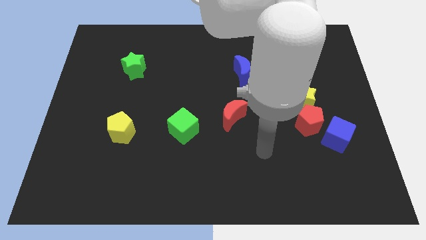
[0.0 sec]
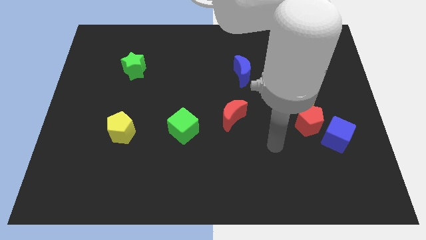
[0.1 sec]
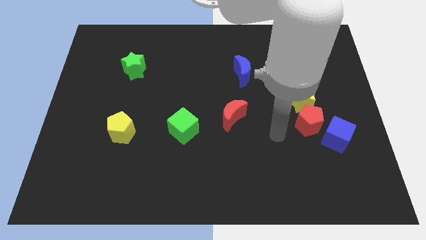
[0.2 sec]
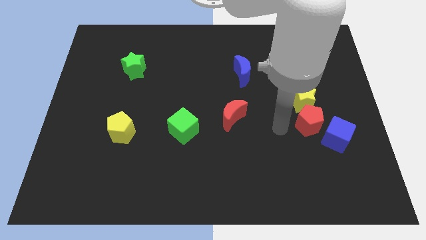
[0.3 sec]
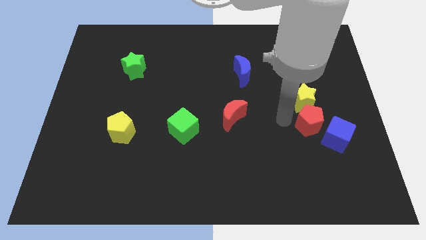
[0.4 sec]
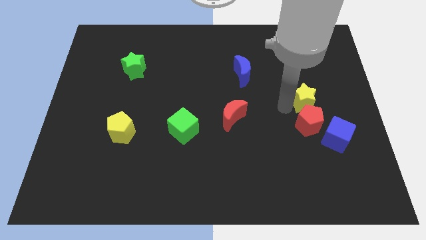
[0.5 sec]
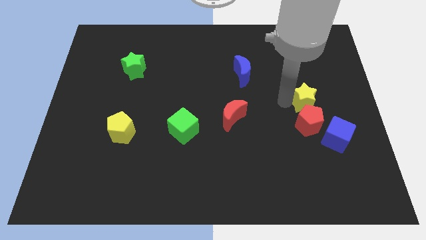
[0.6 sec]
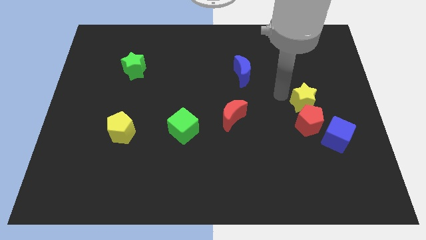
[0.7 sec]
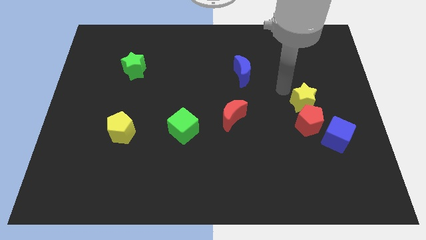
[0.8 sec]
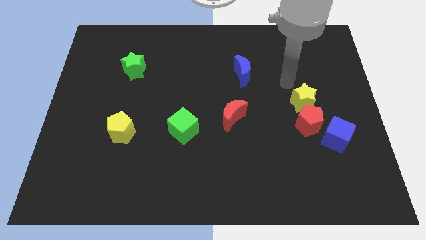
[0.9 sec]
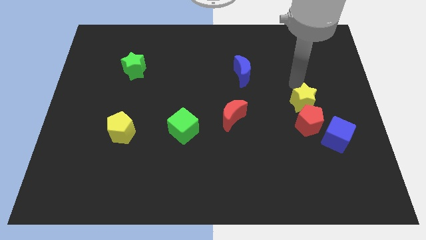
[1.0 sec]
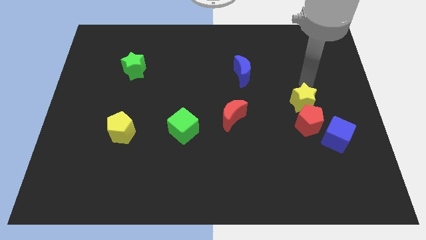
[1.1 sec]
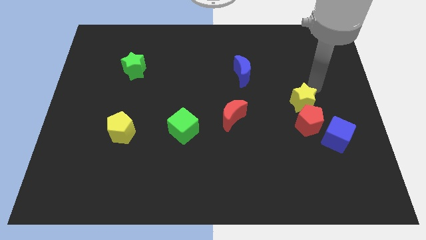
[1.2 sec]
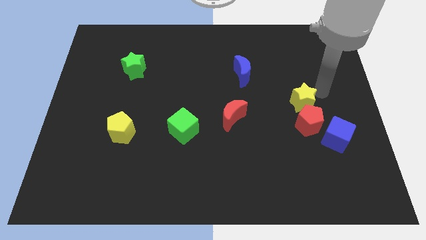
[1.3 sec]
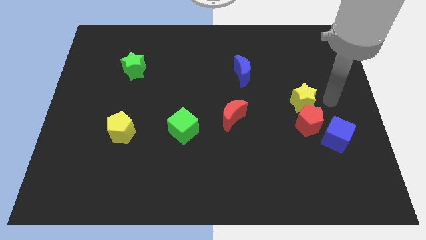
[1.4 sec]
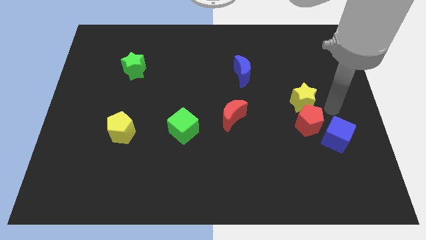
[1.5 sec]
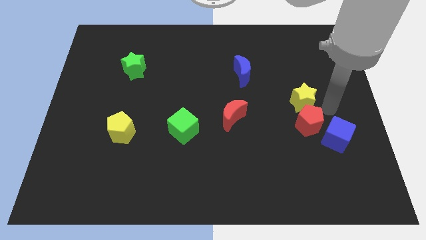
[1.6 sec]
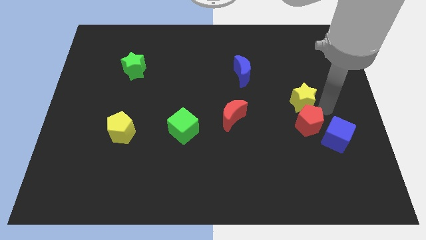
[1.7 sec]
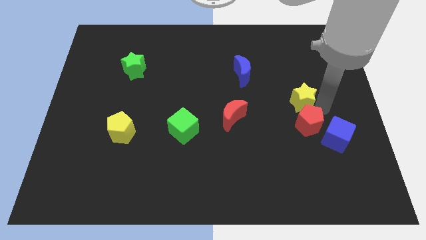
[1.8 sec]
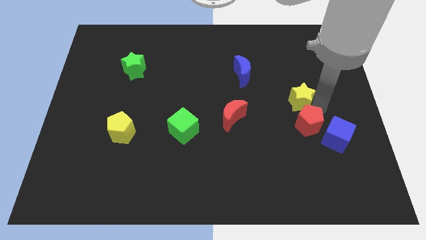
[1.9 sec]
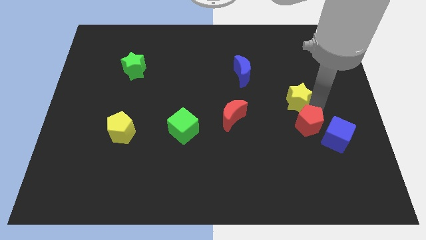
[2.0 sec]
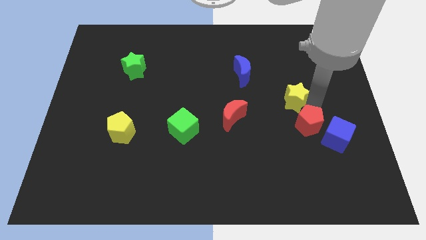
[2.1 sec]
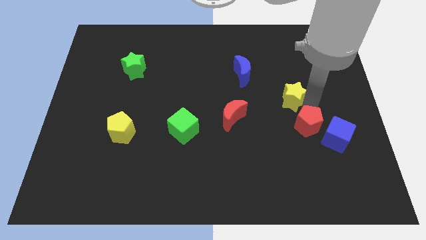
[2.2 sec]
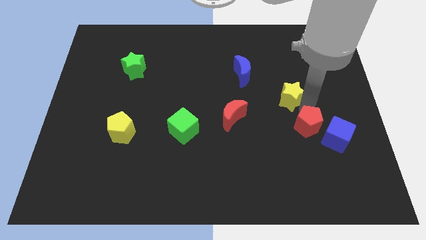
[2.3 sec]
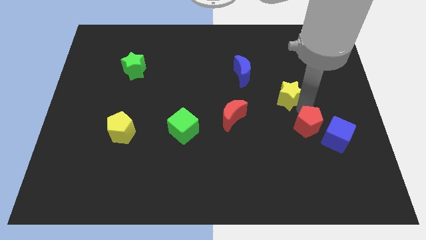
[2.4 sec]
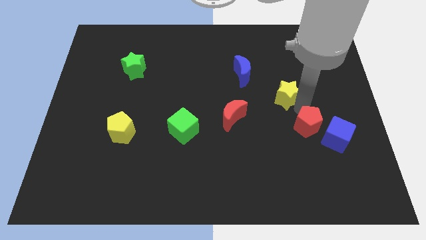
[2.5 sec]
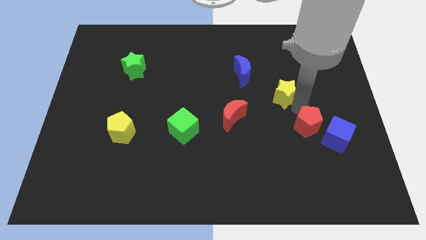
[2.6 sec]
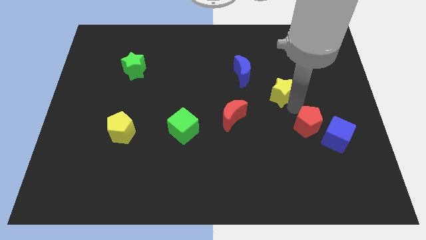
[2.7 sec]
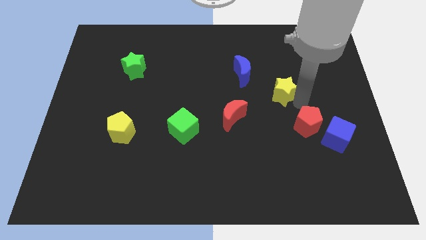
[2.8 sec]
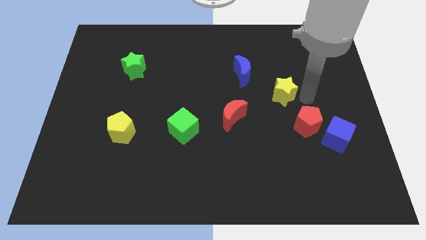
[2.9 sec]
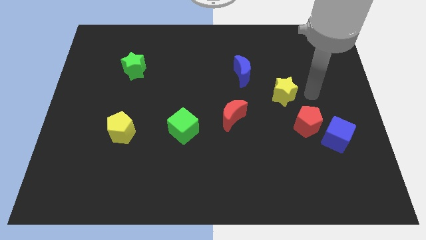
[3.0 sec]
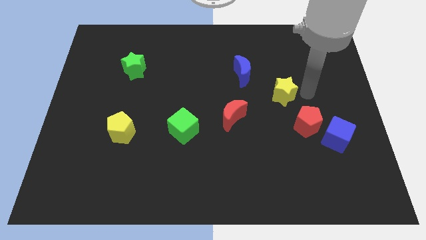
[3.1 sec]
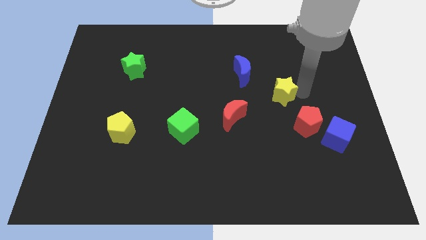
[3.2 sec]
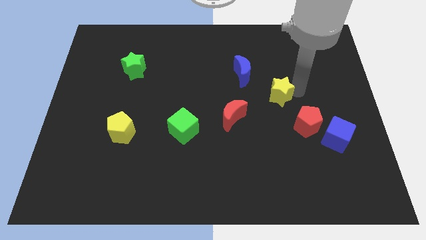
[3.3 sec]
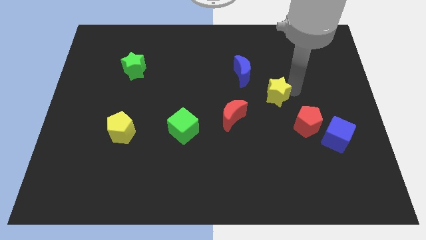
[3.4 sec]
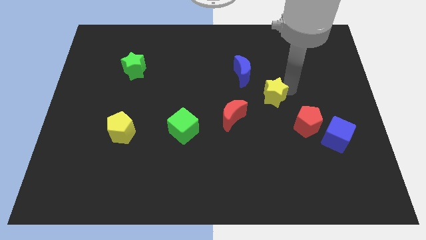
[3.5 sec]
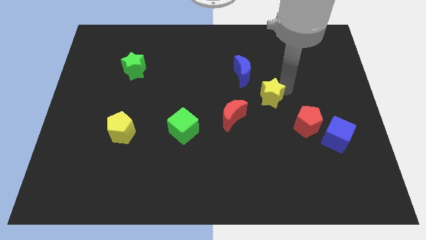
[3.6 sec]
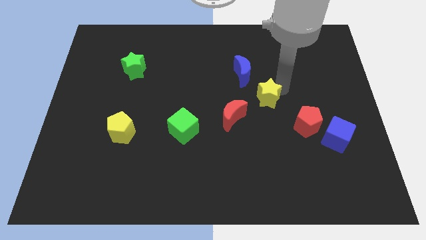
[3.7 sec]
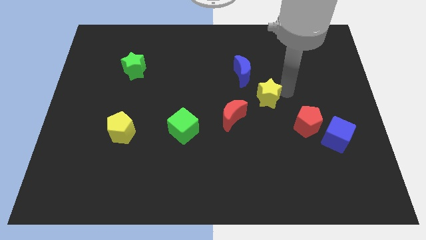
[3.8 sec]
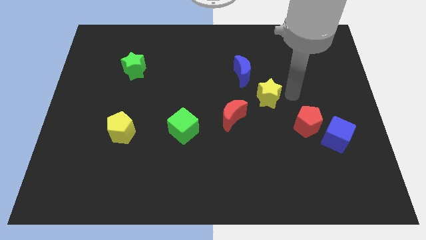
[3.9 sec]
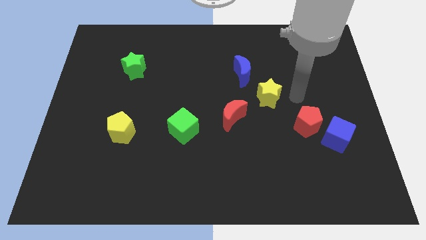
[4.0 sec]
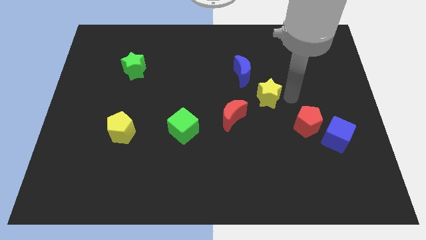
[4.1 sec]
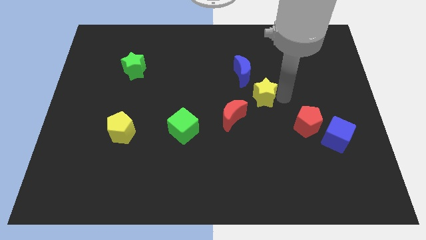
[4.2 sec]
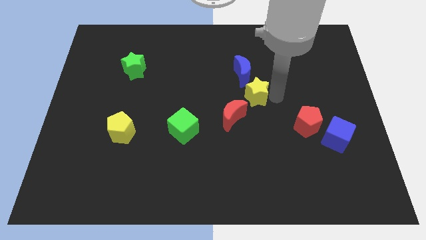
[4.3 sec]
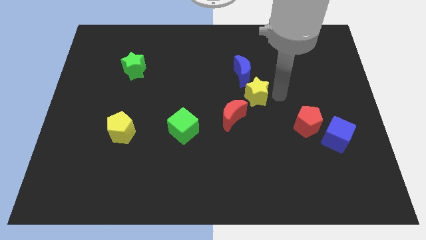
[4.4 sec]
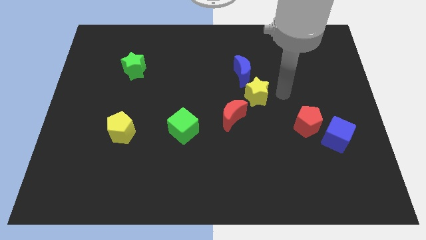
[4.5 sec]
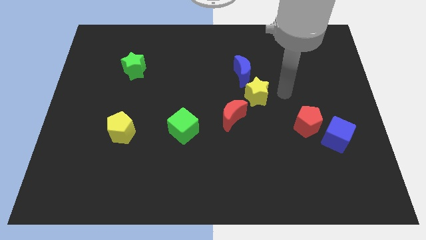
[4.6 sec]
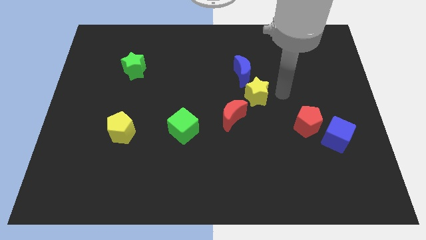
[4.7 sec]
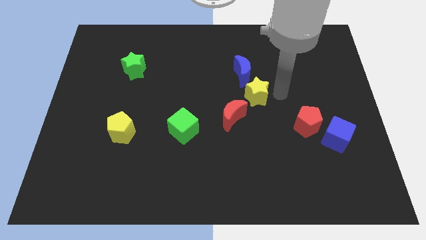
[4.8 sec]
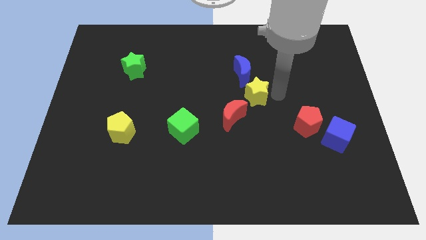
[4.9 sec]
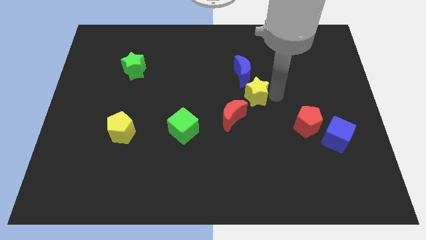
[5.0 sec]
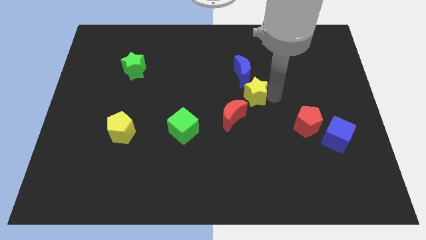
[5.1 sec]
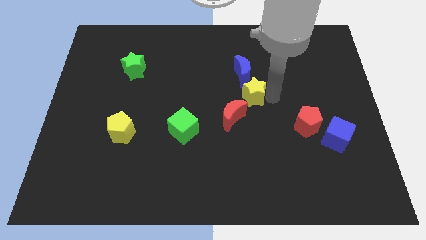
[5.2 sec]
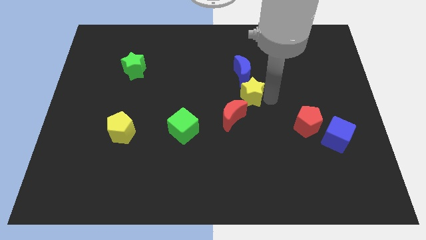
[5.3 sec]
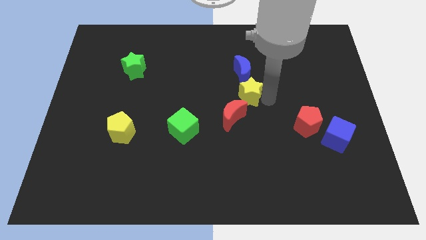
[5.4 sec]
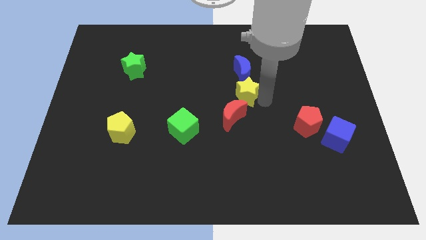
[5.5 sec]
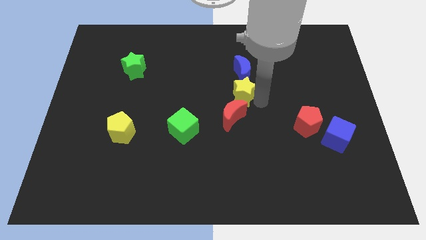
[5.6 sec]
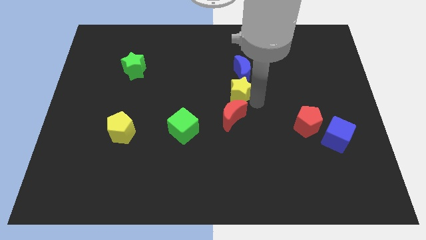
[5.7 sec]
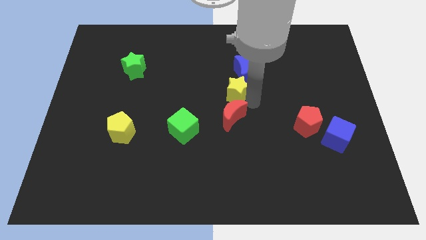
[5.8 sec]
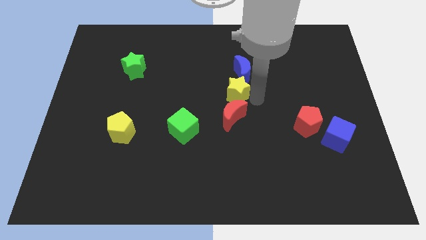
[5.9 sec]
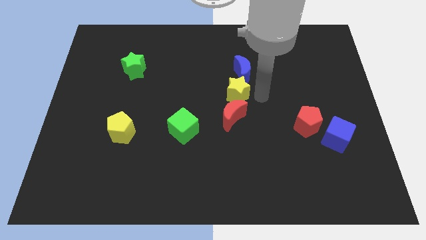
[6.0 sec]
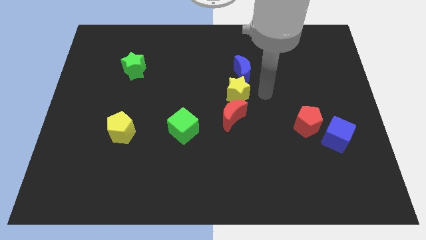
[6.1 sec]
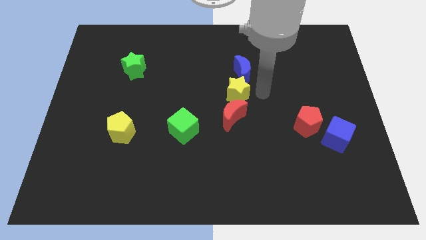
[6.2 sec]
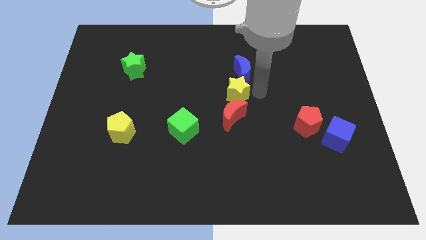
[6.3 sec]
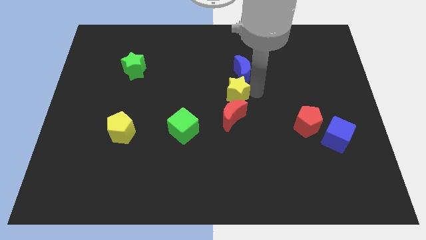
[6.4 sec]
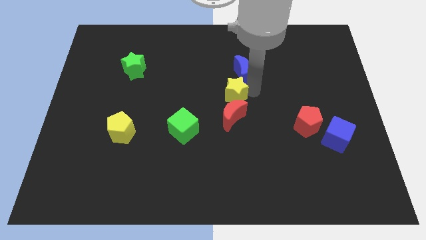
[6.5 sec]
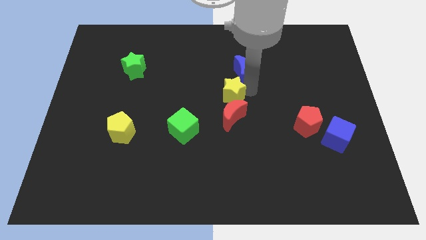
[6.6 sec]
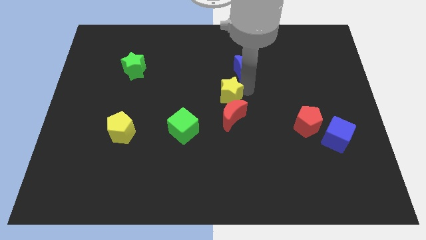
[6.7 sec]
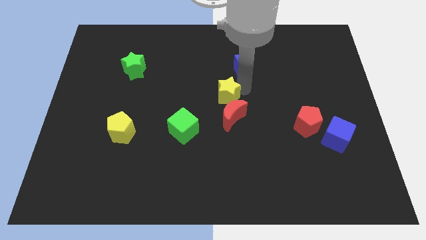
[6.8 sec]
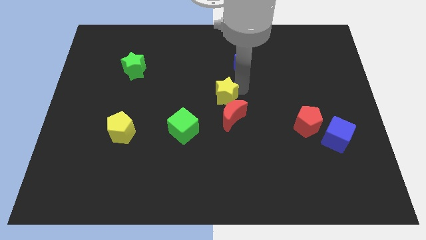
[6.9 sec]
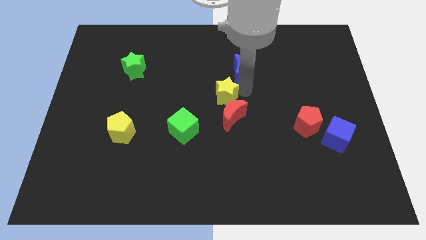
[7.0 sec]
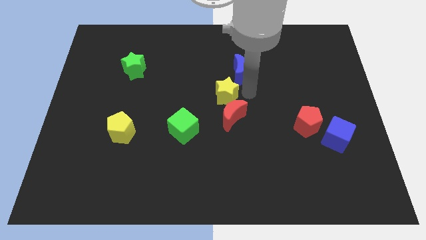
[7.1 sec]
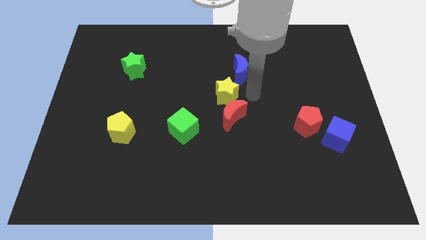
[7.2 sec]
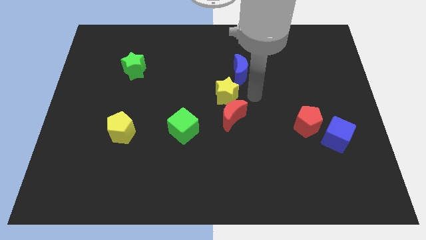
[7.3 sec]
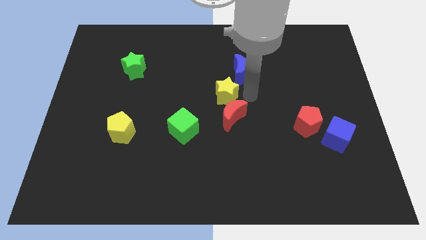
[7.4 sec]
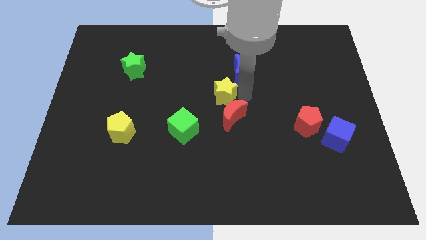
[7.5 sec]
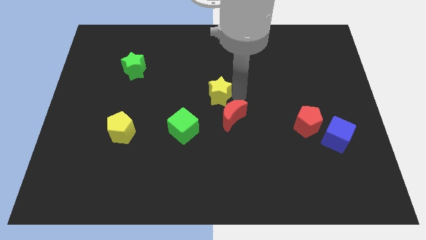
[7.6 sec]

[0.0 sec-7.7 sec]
push the yellow star to the left

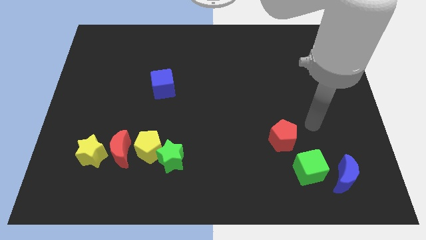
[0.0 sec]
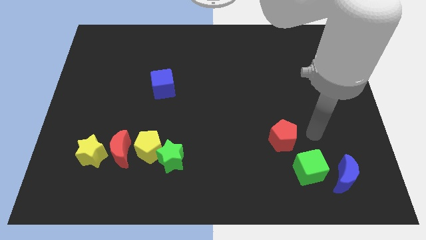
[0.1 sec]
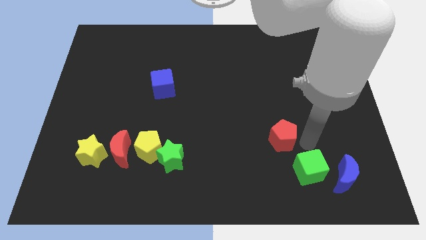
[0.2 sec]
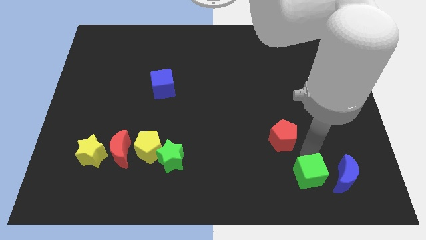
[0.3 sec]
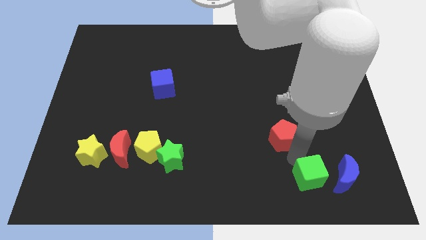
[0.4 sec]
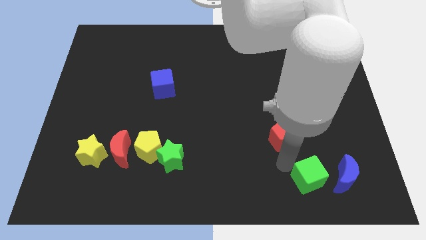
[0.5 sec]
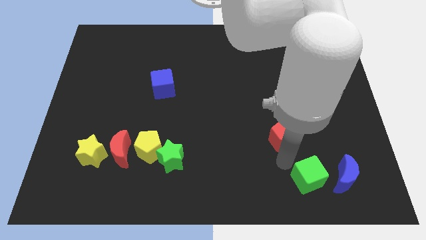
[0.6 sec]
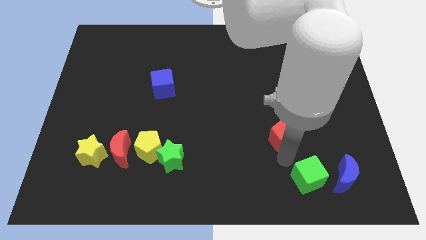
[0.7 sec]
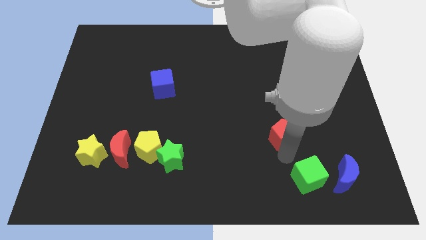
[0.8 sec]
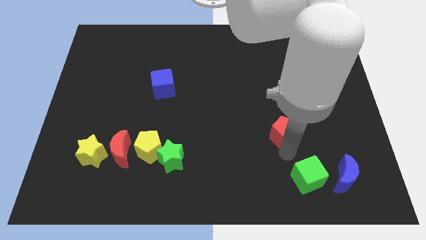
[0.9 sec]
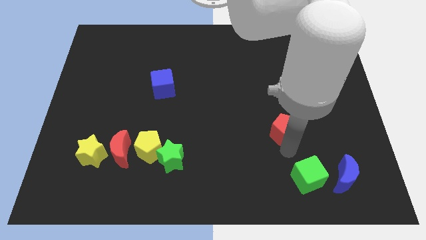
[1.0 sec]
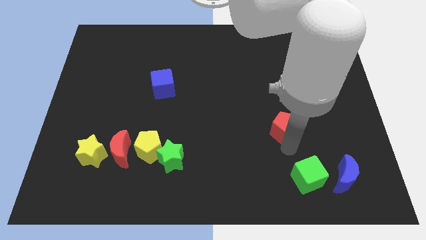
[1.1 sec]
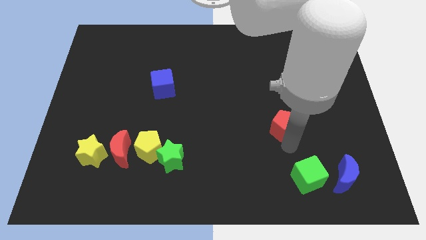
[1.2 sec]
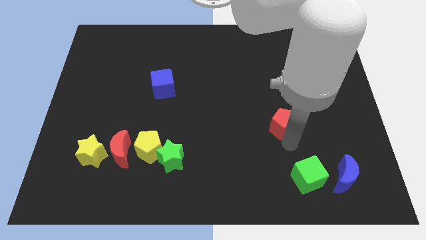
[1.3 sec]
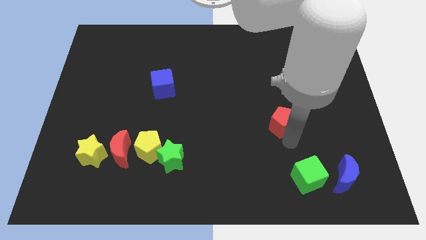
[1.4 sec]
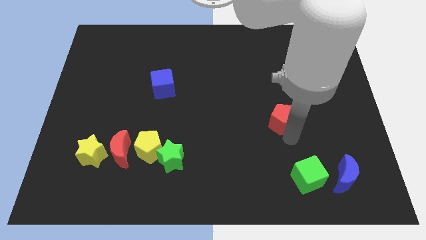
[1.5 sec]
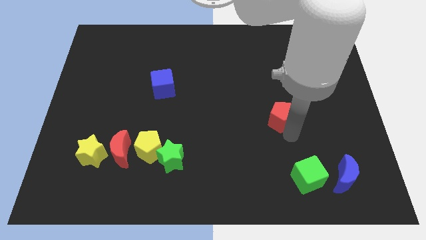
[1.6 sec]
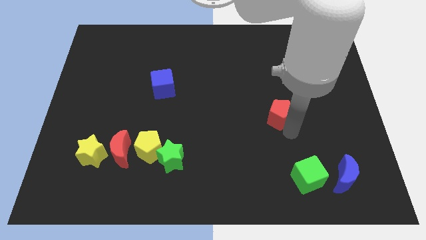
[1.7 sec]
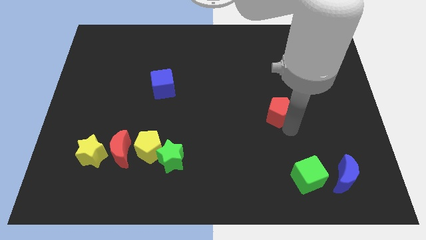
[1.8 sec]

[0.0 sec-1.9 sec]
move the red pentagon a little up
